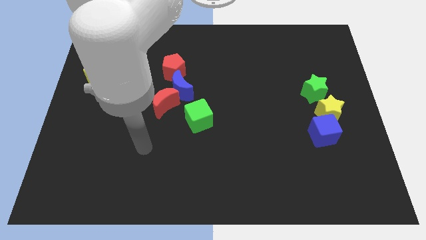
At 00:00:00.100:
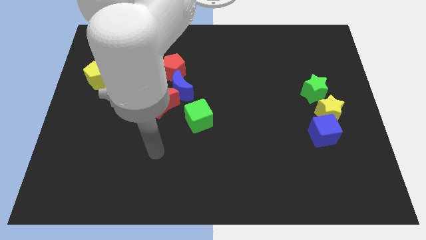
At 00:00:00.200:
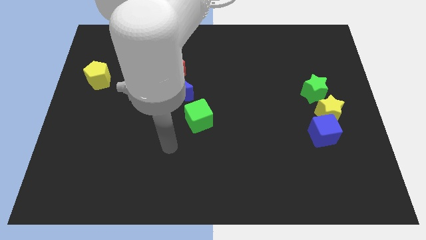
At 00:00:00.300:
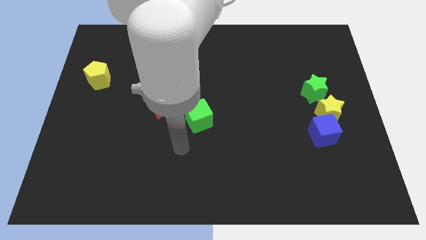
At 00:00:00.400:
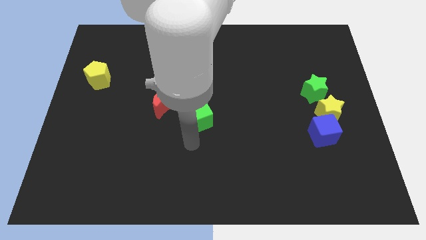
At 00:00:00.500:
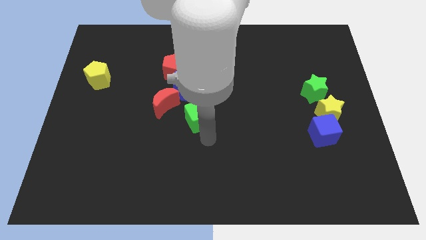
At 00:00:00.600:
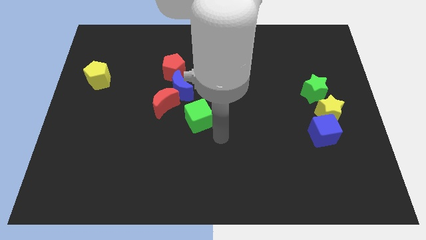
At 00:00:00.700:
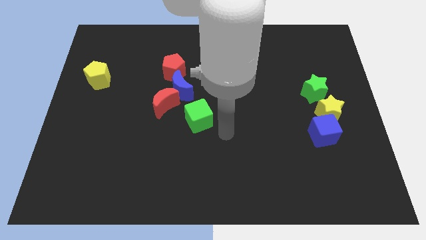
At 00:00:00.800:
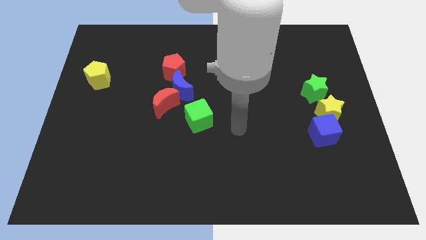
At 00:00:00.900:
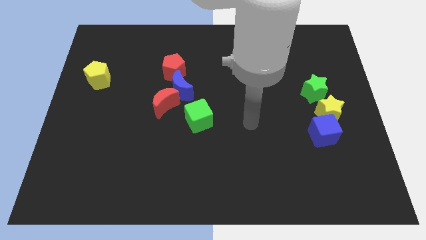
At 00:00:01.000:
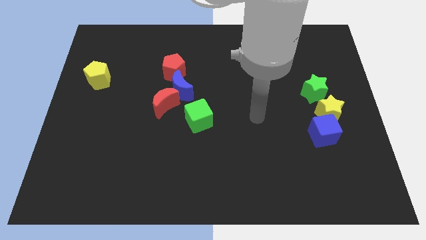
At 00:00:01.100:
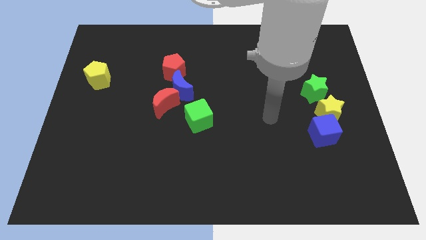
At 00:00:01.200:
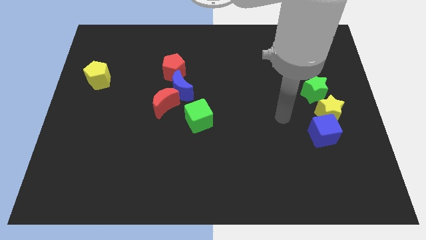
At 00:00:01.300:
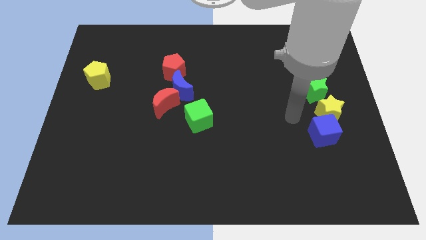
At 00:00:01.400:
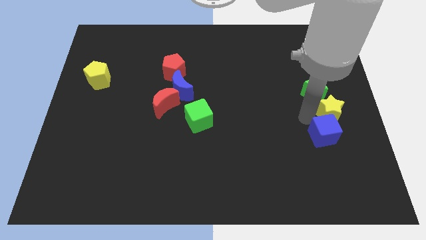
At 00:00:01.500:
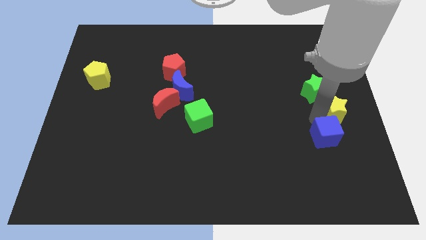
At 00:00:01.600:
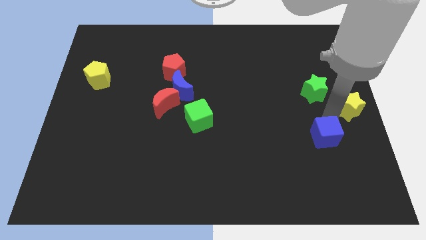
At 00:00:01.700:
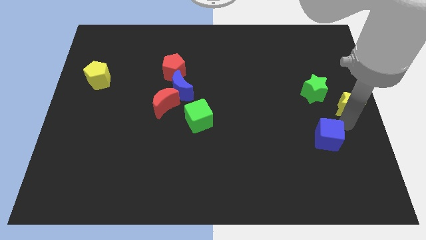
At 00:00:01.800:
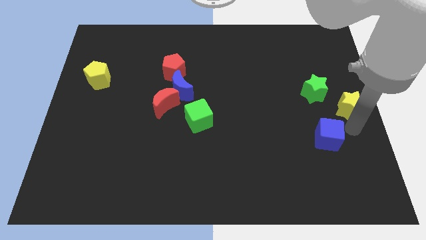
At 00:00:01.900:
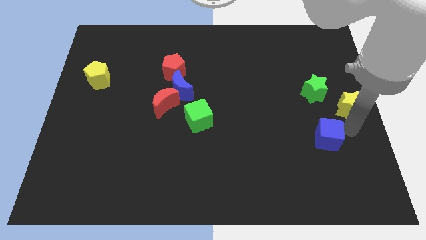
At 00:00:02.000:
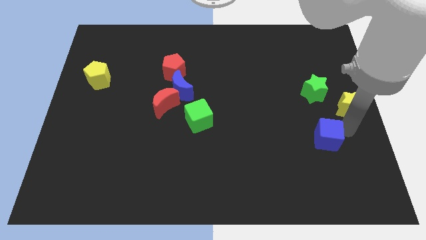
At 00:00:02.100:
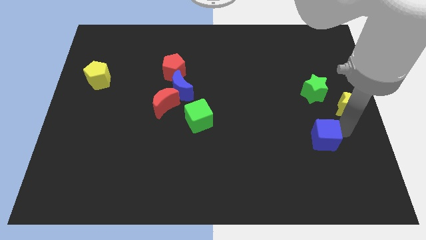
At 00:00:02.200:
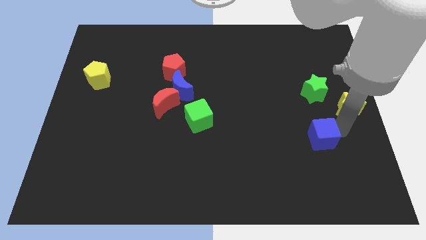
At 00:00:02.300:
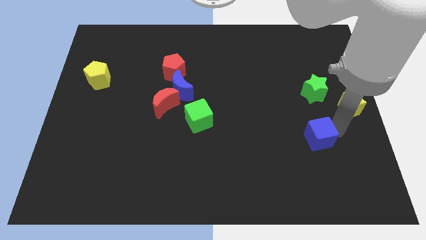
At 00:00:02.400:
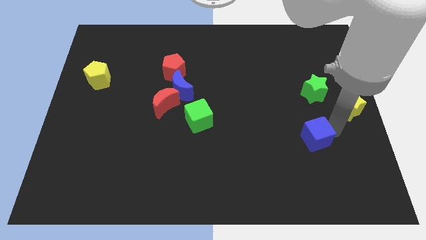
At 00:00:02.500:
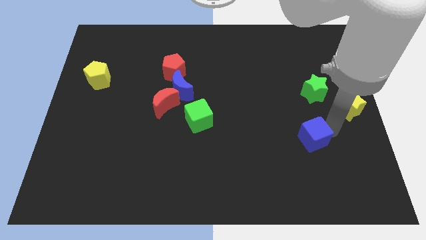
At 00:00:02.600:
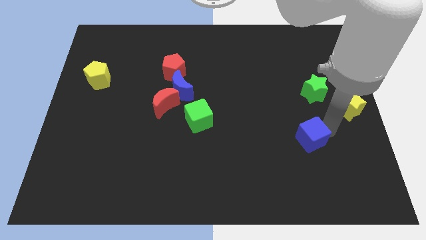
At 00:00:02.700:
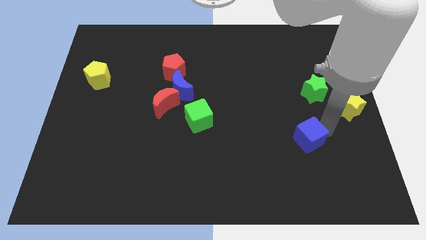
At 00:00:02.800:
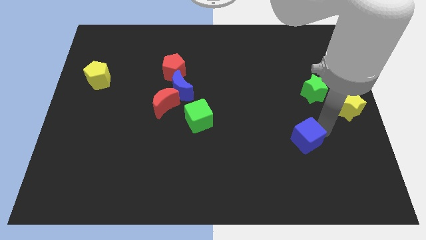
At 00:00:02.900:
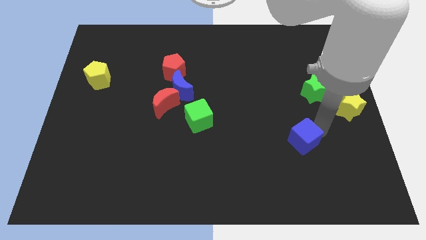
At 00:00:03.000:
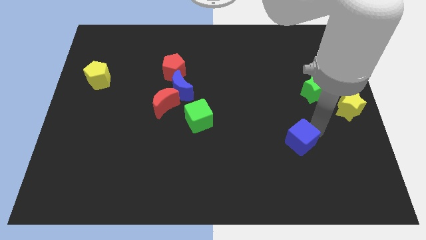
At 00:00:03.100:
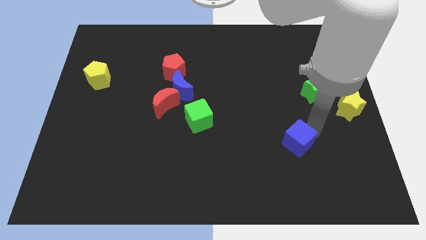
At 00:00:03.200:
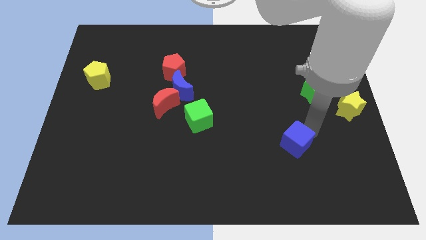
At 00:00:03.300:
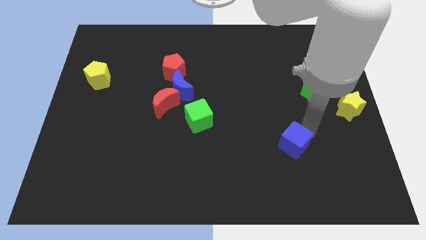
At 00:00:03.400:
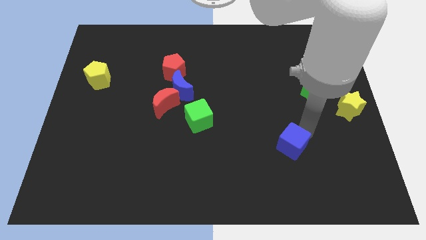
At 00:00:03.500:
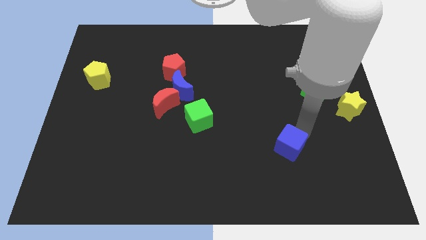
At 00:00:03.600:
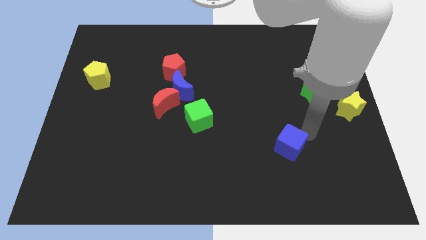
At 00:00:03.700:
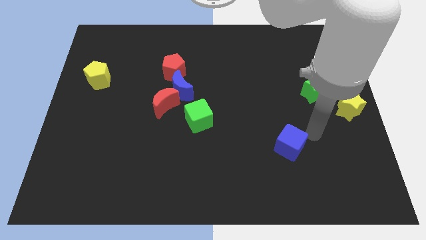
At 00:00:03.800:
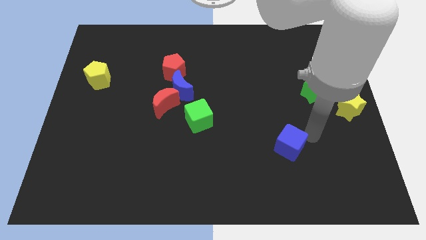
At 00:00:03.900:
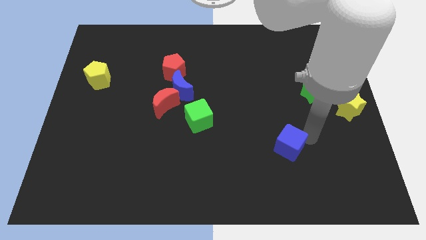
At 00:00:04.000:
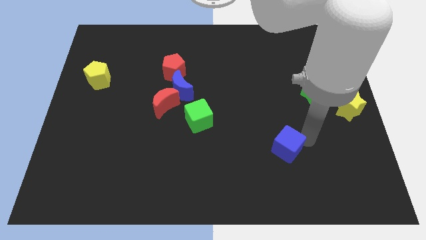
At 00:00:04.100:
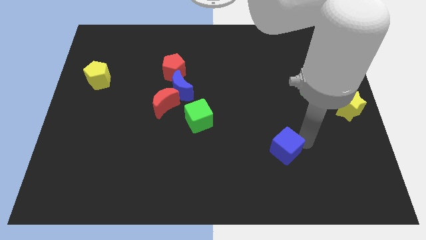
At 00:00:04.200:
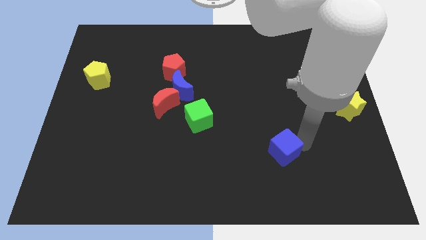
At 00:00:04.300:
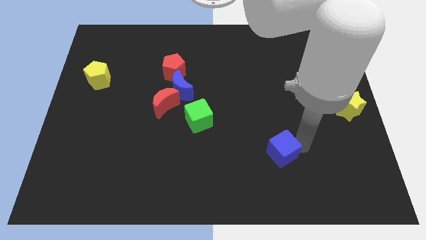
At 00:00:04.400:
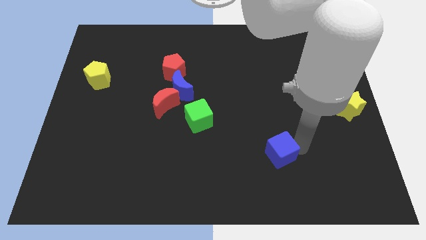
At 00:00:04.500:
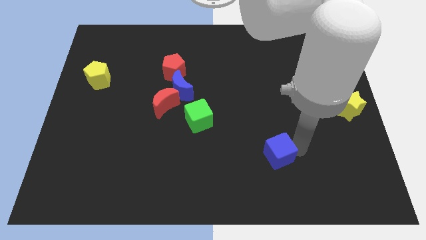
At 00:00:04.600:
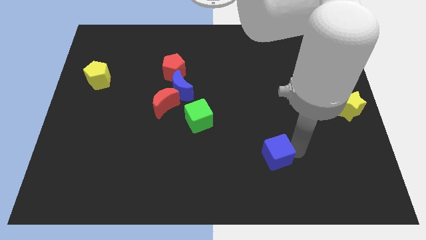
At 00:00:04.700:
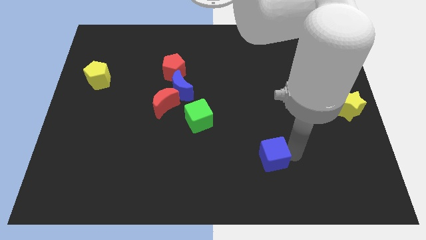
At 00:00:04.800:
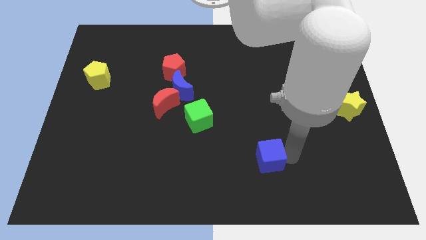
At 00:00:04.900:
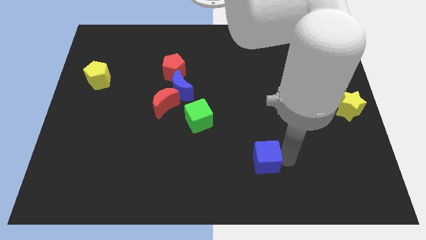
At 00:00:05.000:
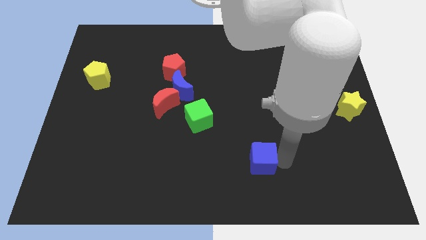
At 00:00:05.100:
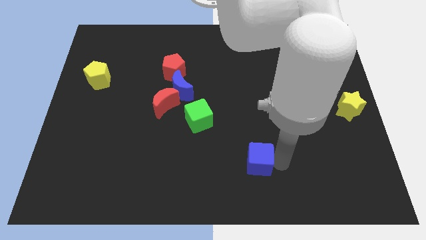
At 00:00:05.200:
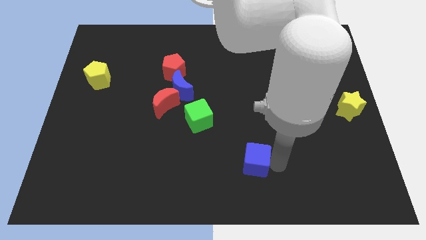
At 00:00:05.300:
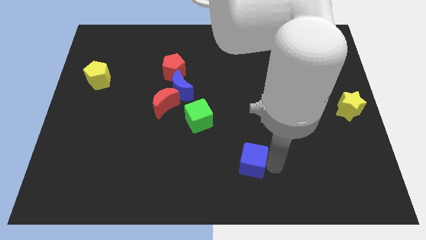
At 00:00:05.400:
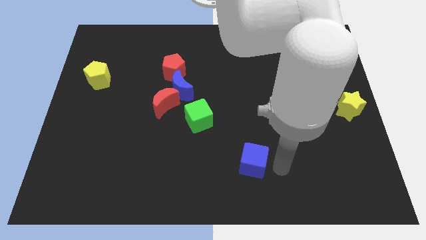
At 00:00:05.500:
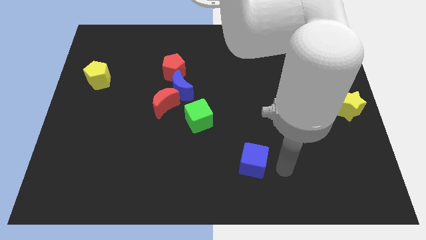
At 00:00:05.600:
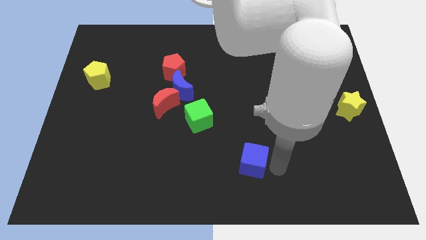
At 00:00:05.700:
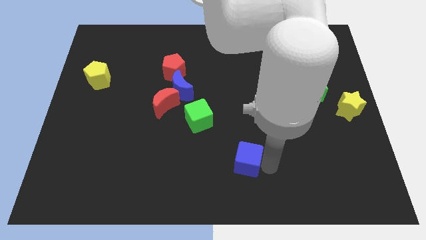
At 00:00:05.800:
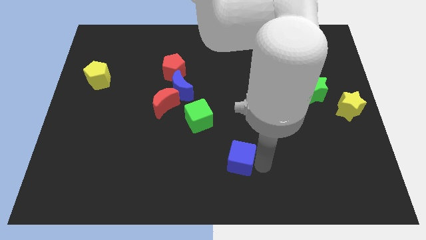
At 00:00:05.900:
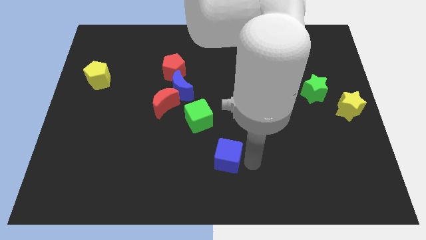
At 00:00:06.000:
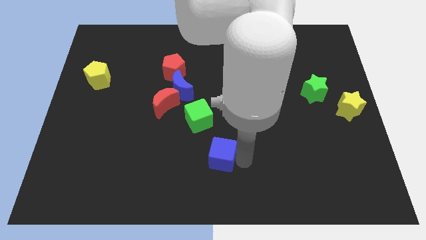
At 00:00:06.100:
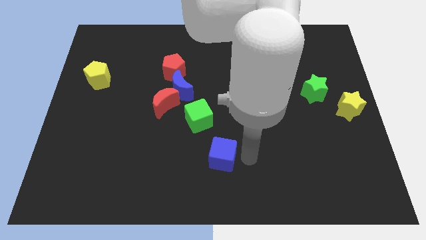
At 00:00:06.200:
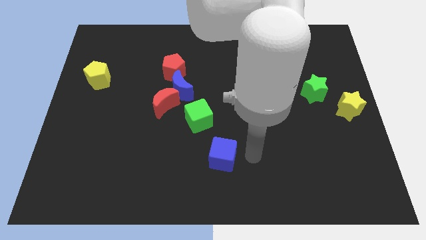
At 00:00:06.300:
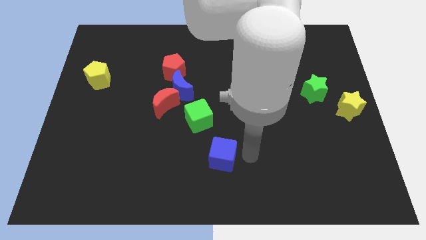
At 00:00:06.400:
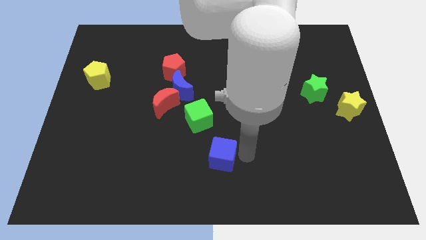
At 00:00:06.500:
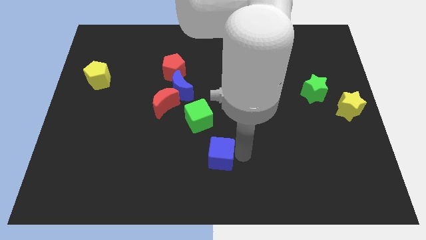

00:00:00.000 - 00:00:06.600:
move the blue cube to the bottom of the green cube

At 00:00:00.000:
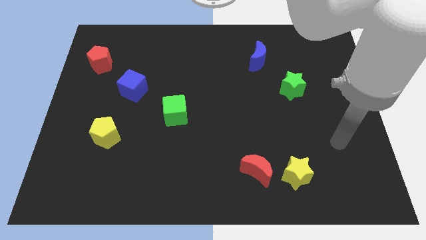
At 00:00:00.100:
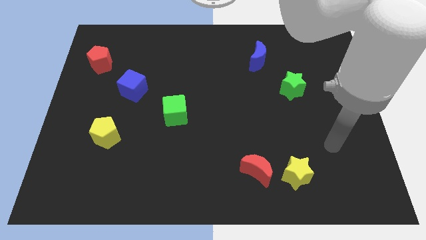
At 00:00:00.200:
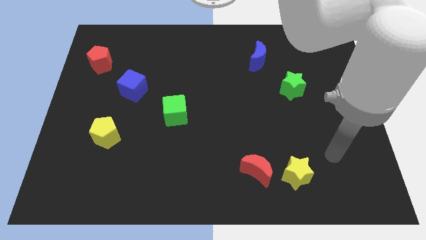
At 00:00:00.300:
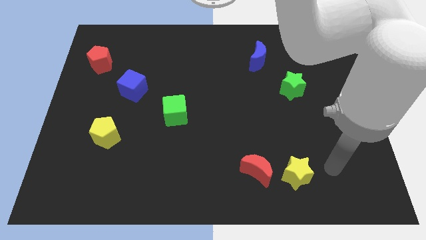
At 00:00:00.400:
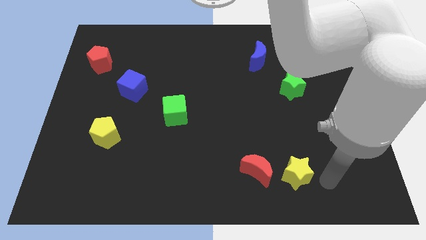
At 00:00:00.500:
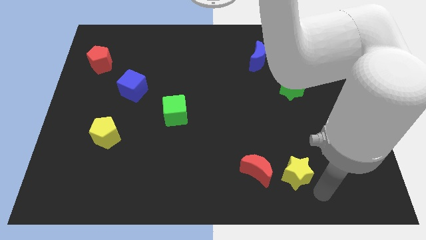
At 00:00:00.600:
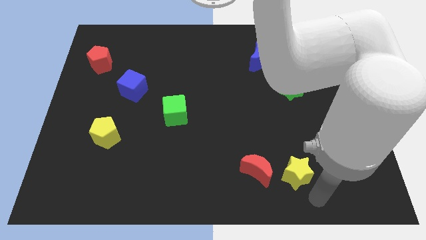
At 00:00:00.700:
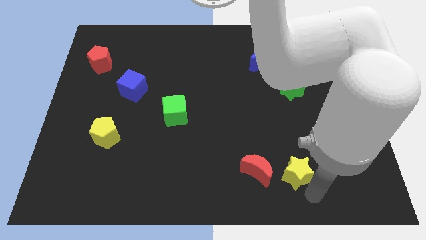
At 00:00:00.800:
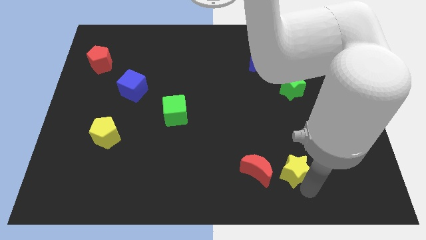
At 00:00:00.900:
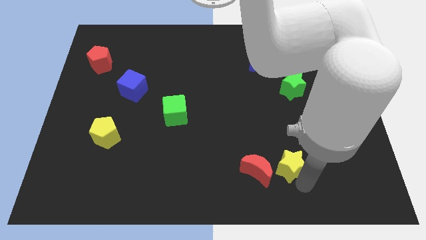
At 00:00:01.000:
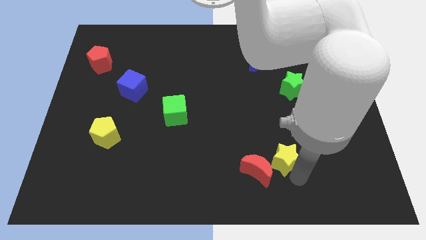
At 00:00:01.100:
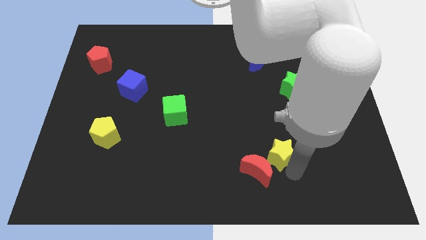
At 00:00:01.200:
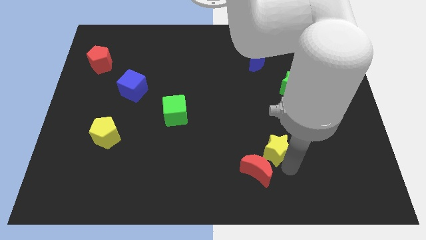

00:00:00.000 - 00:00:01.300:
move the yellow star above the red moon
